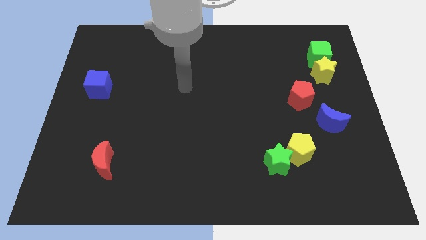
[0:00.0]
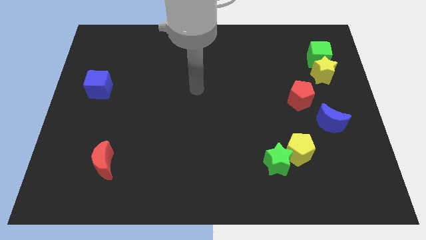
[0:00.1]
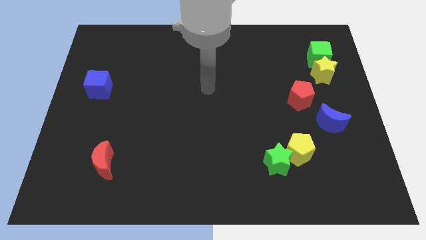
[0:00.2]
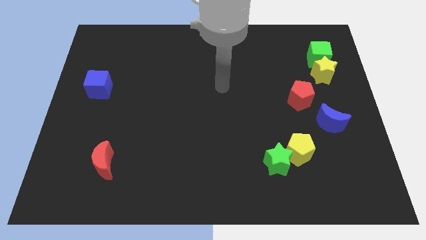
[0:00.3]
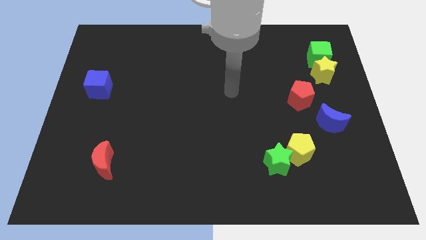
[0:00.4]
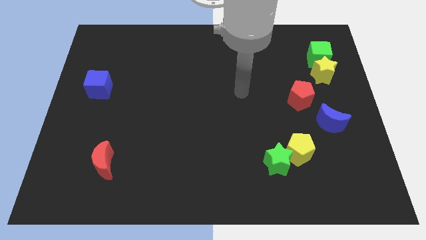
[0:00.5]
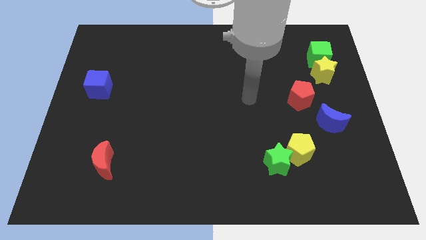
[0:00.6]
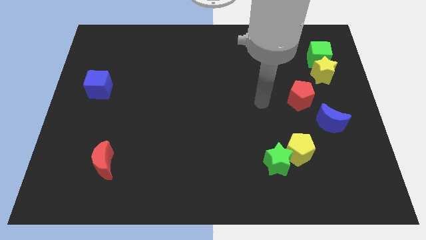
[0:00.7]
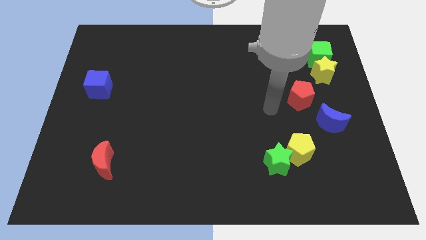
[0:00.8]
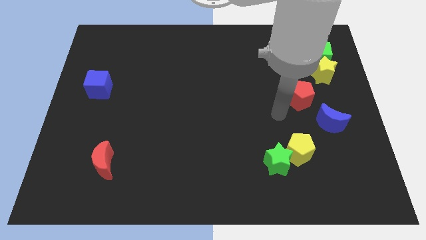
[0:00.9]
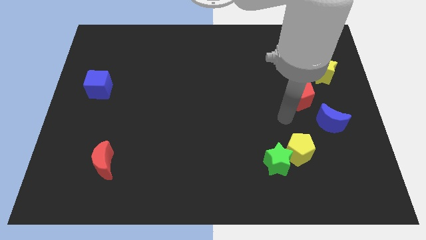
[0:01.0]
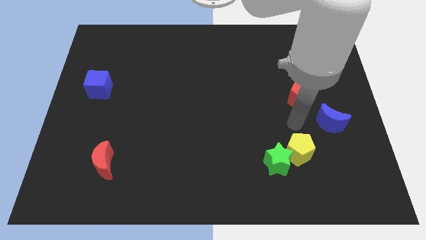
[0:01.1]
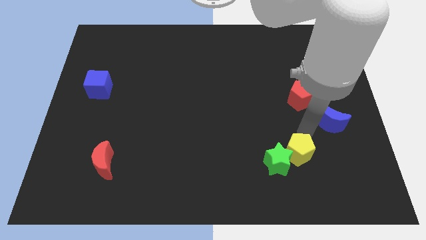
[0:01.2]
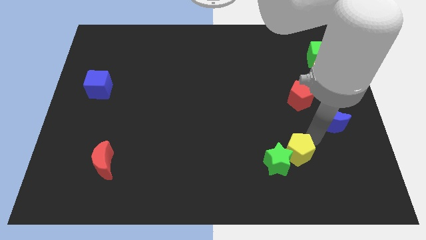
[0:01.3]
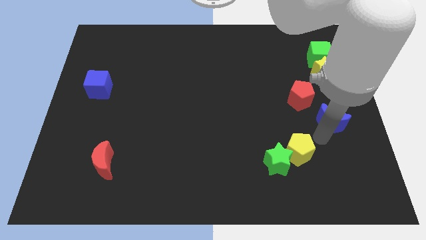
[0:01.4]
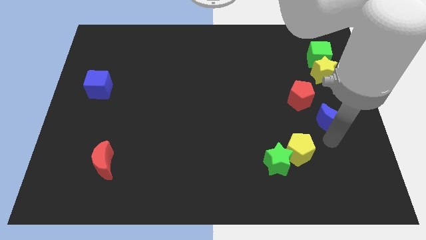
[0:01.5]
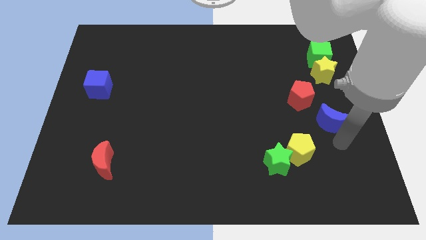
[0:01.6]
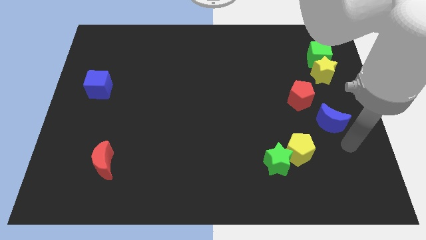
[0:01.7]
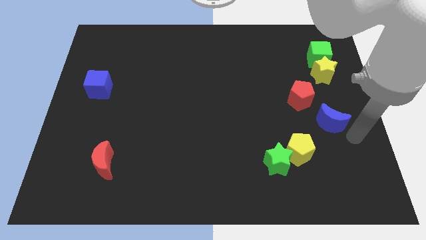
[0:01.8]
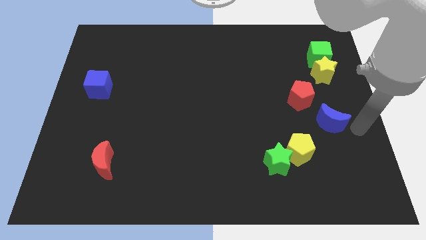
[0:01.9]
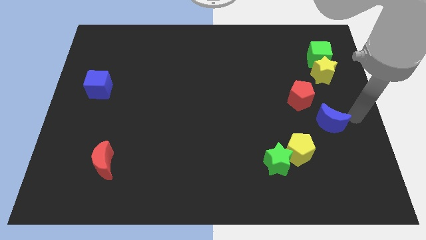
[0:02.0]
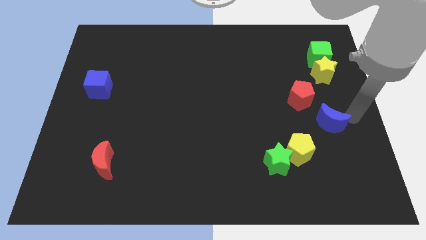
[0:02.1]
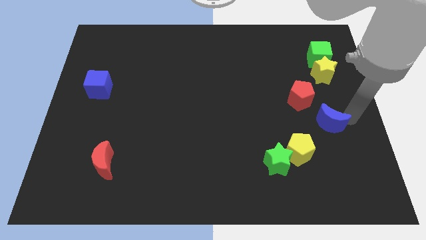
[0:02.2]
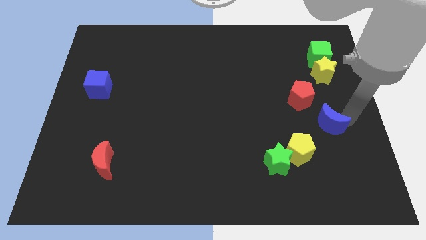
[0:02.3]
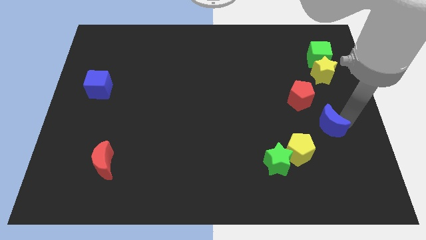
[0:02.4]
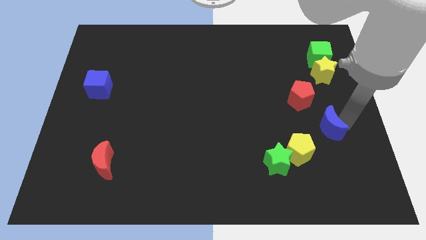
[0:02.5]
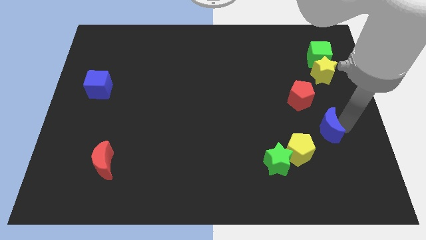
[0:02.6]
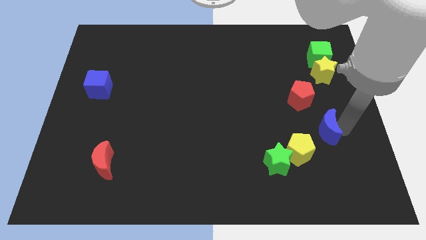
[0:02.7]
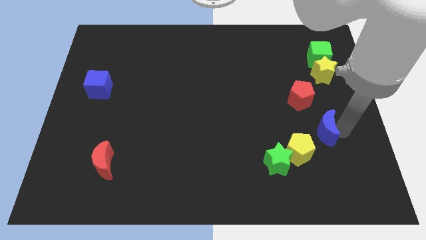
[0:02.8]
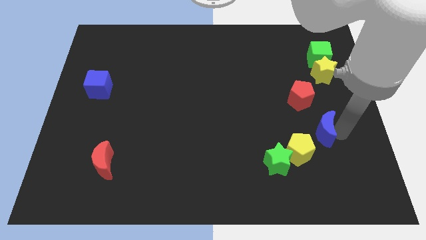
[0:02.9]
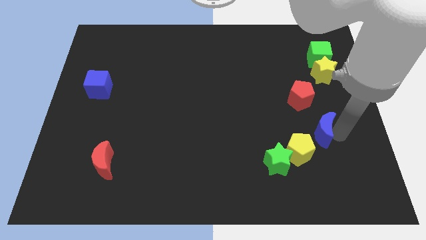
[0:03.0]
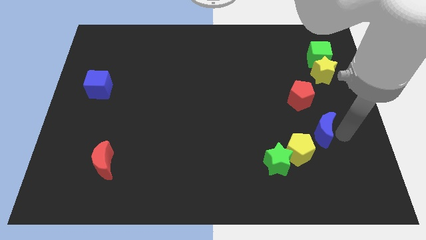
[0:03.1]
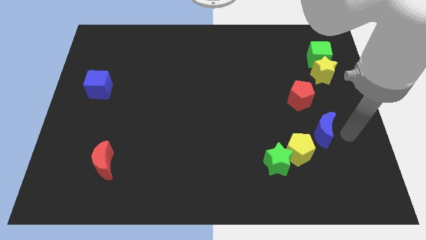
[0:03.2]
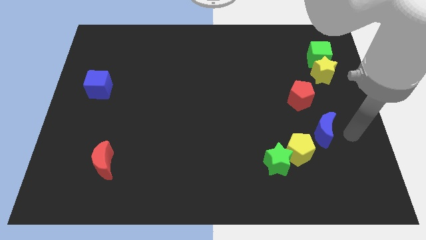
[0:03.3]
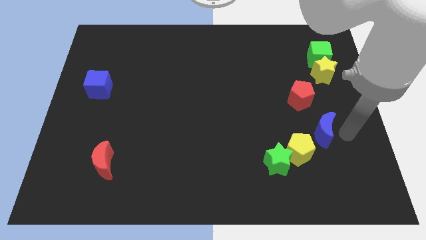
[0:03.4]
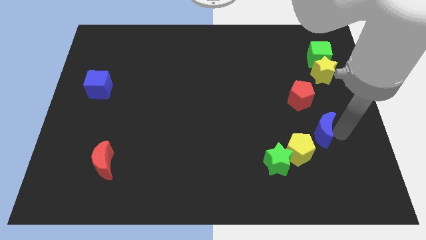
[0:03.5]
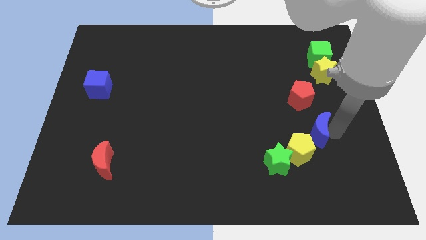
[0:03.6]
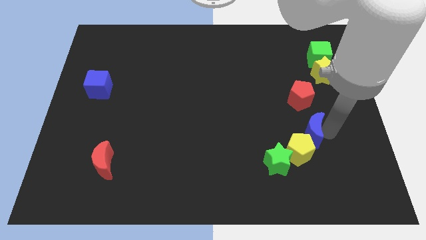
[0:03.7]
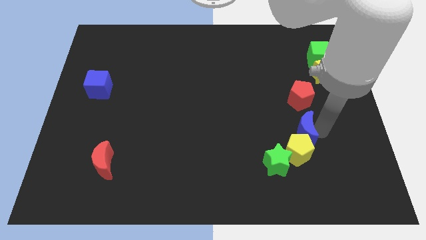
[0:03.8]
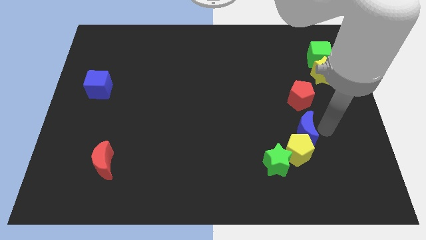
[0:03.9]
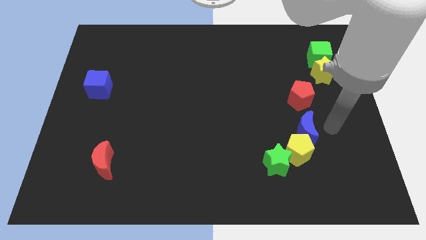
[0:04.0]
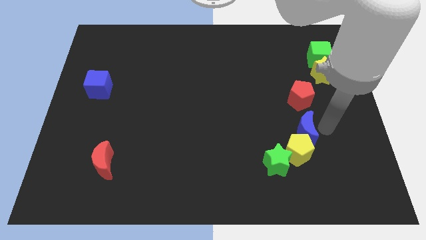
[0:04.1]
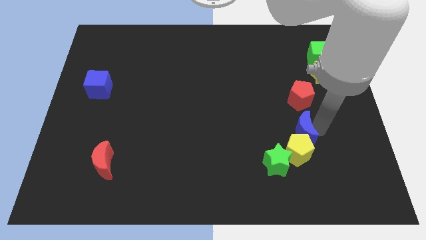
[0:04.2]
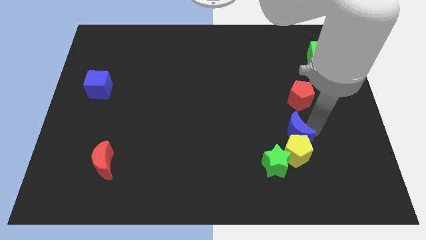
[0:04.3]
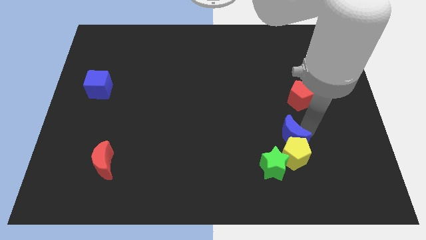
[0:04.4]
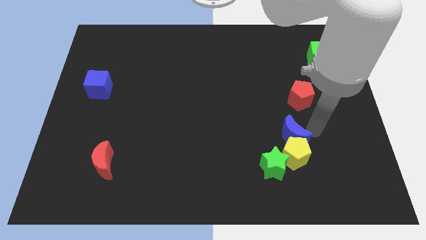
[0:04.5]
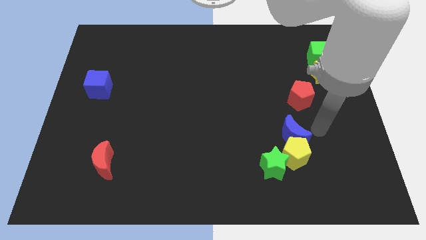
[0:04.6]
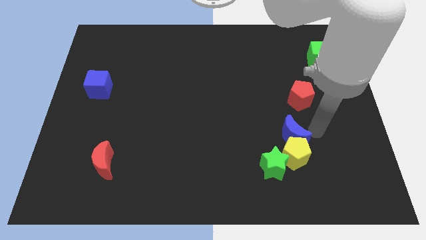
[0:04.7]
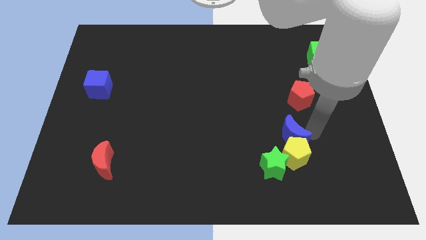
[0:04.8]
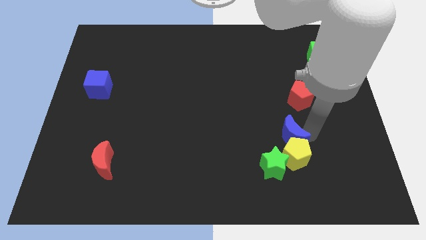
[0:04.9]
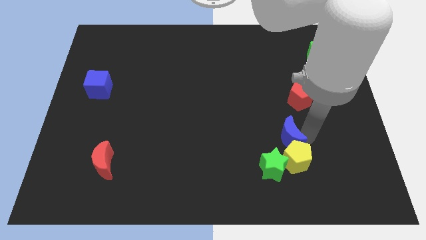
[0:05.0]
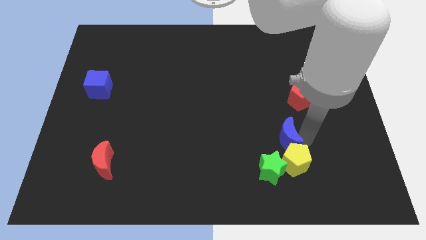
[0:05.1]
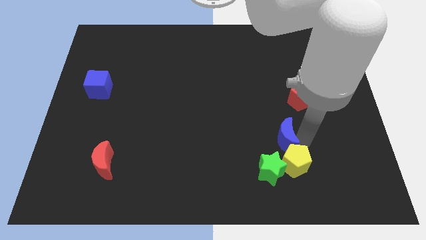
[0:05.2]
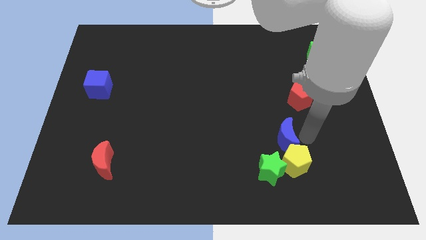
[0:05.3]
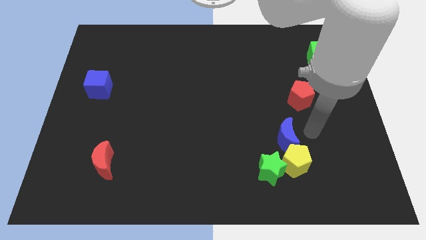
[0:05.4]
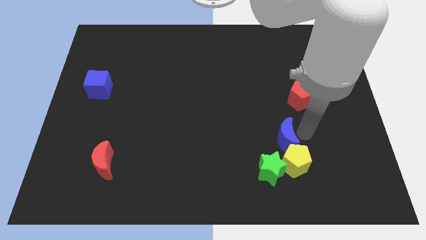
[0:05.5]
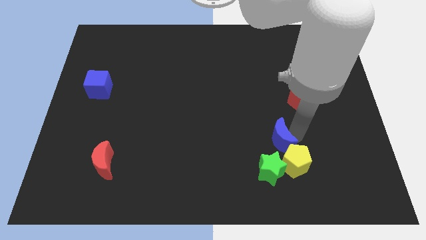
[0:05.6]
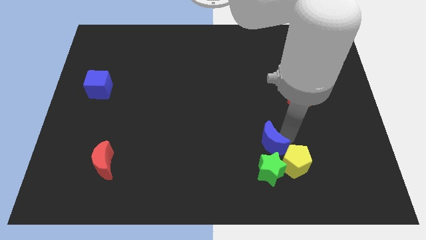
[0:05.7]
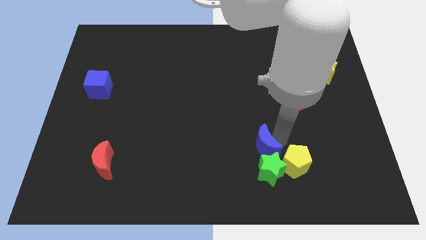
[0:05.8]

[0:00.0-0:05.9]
put the blue moon to the top left side of the green star

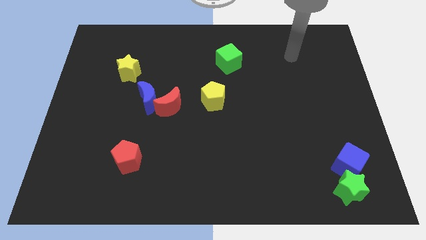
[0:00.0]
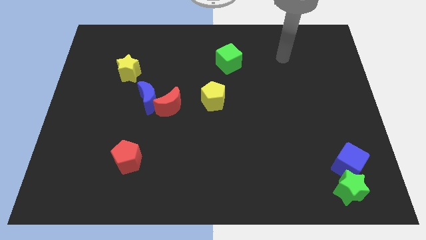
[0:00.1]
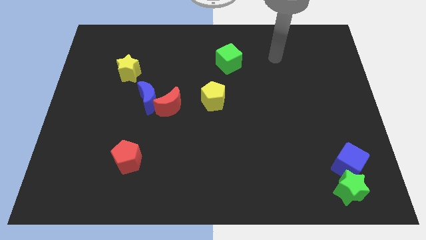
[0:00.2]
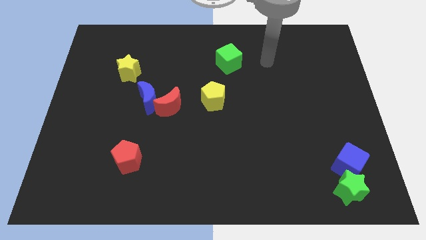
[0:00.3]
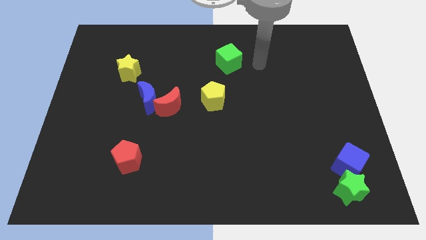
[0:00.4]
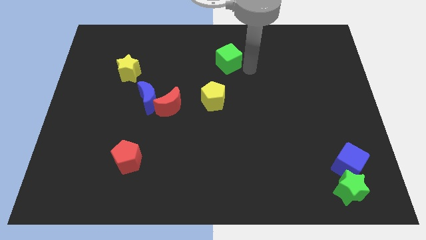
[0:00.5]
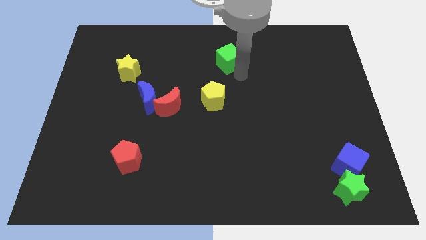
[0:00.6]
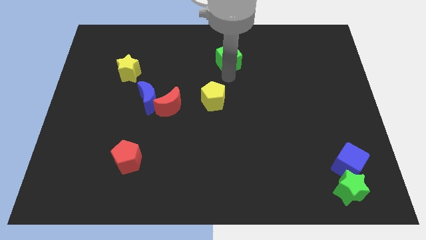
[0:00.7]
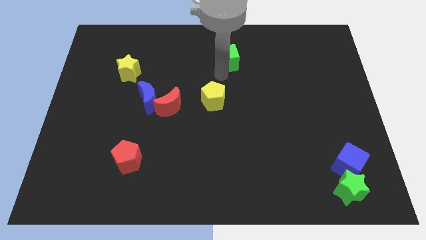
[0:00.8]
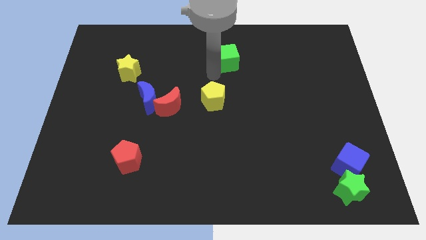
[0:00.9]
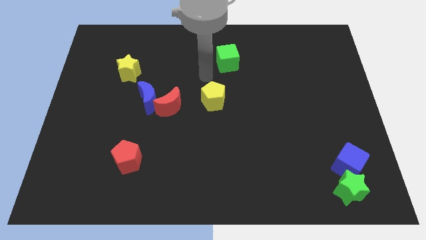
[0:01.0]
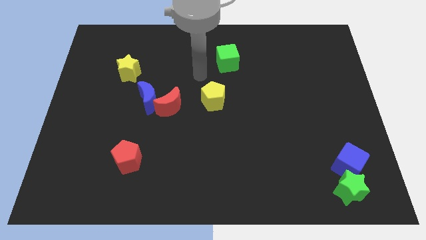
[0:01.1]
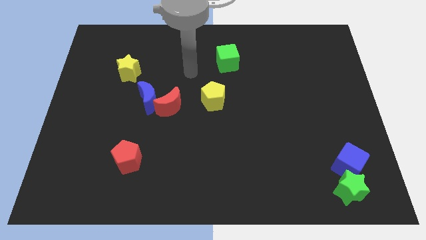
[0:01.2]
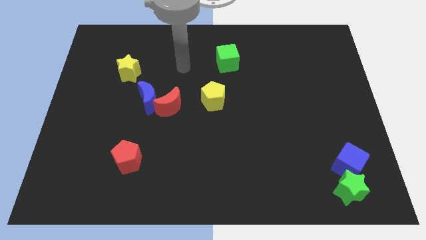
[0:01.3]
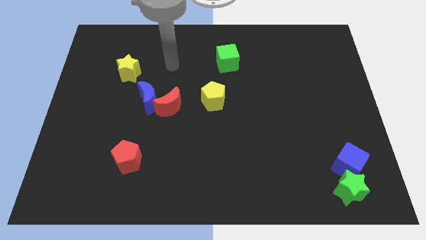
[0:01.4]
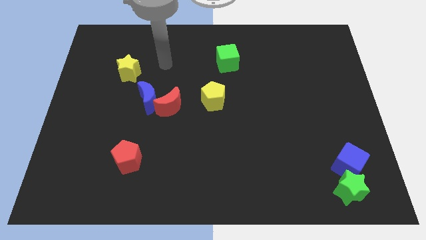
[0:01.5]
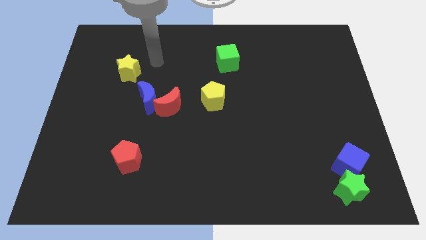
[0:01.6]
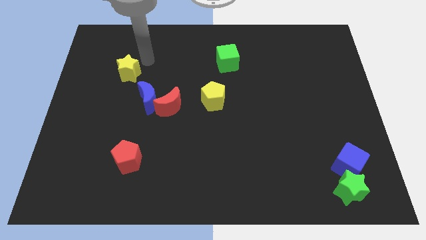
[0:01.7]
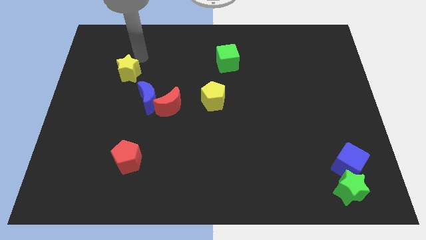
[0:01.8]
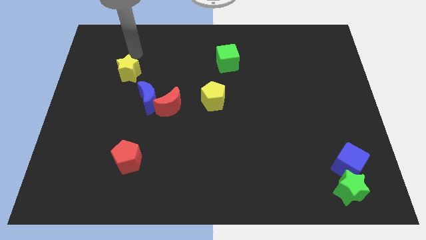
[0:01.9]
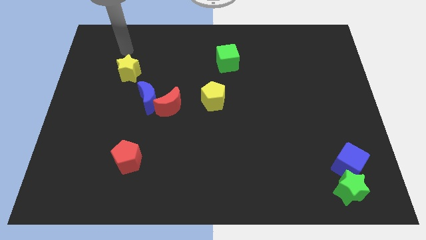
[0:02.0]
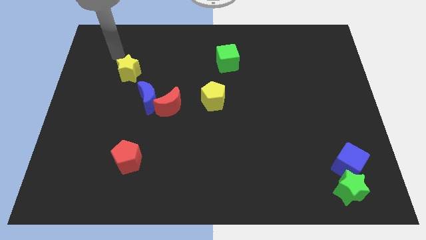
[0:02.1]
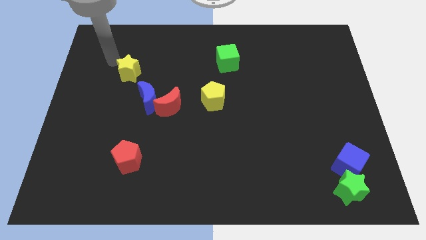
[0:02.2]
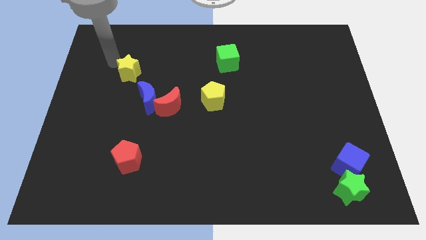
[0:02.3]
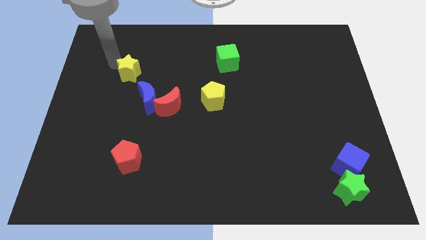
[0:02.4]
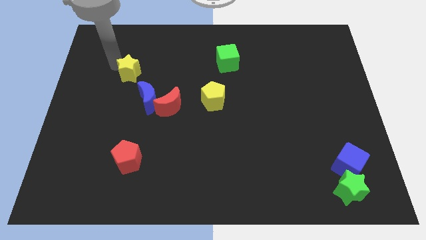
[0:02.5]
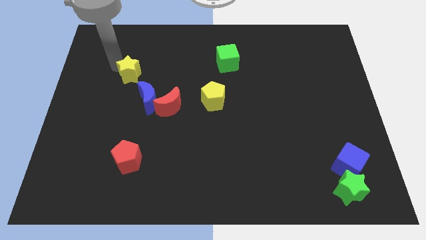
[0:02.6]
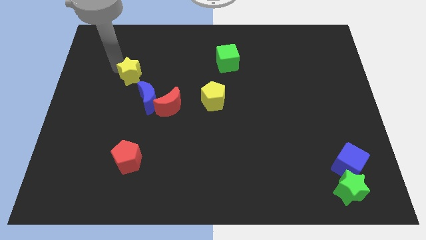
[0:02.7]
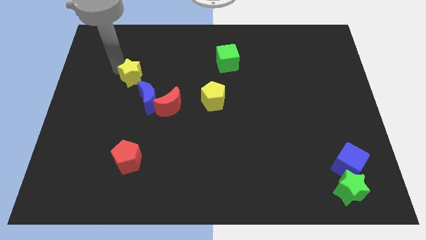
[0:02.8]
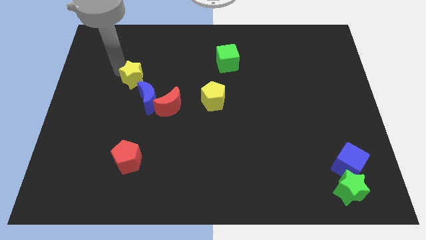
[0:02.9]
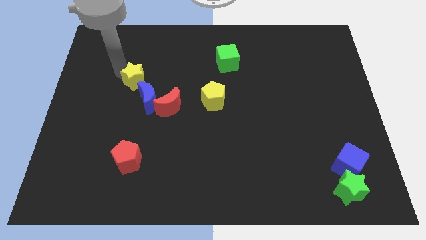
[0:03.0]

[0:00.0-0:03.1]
push the yellow star to the top left side of the red moon
